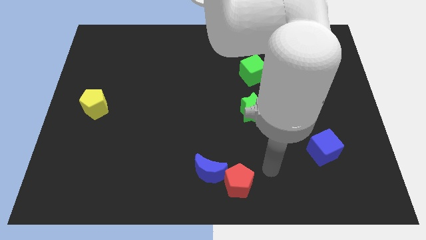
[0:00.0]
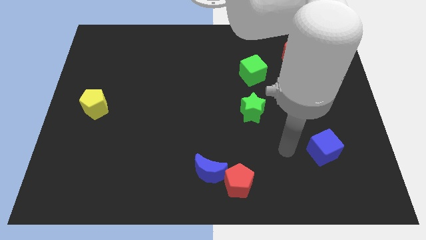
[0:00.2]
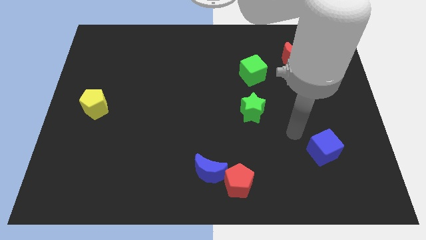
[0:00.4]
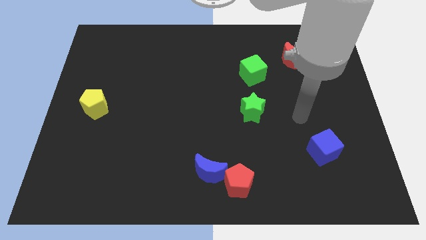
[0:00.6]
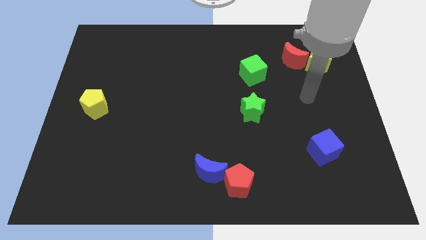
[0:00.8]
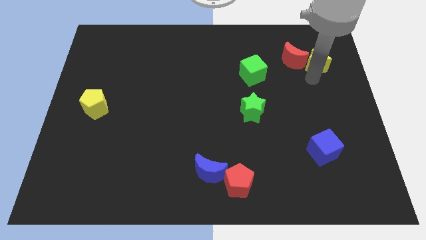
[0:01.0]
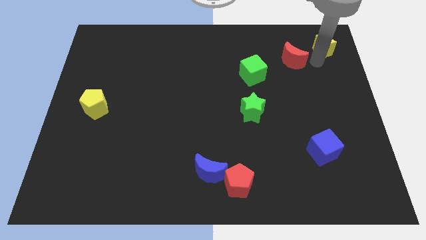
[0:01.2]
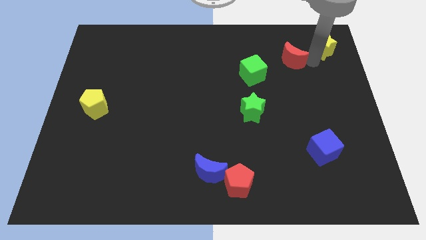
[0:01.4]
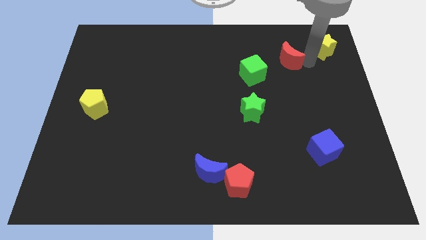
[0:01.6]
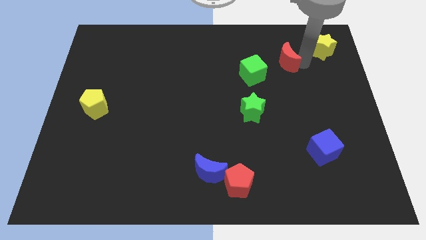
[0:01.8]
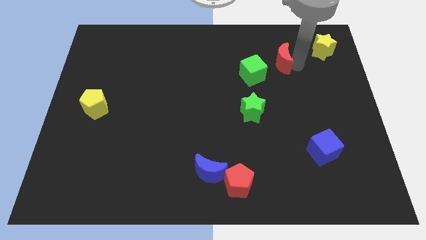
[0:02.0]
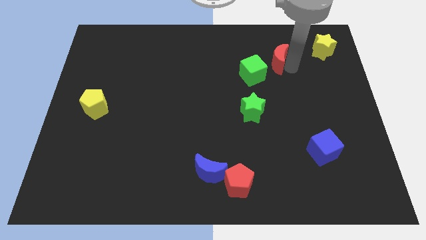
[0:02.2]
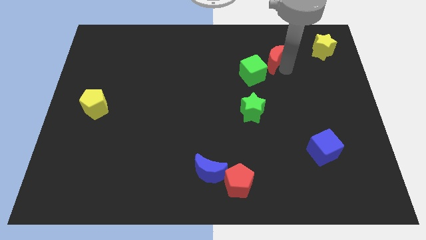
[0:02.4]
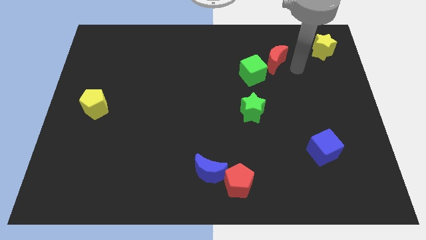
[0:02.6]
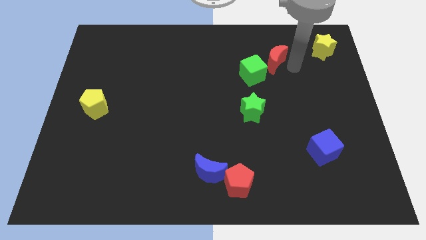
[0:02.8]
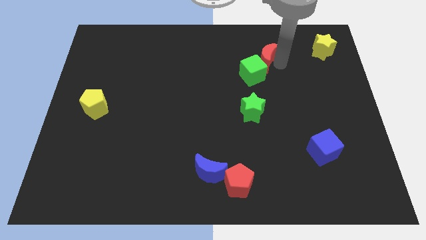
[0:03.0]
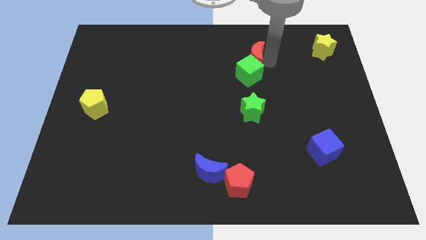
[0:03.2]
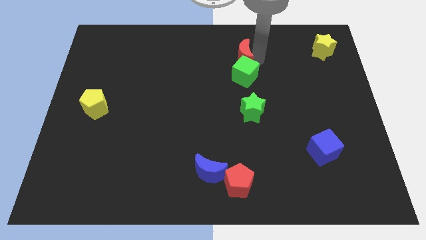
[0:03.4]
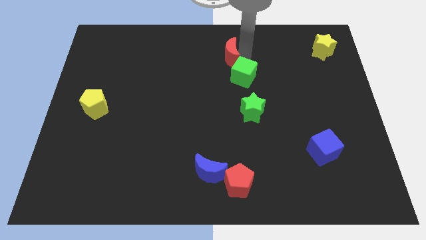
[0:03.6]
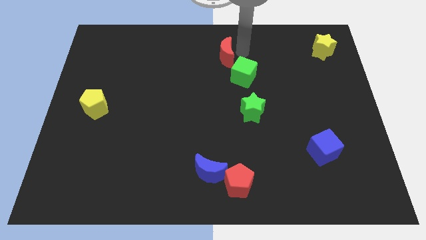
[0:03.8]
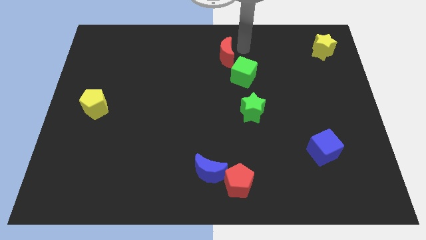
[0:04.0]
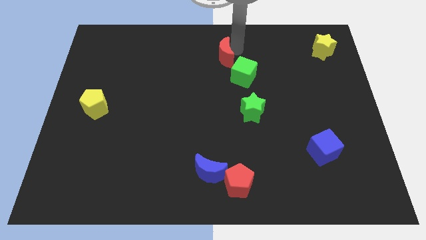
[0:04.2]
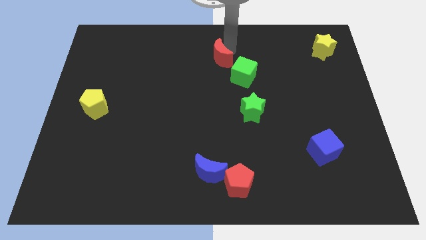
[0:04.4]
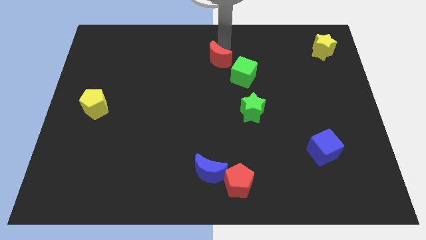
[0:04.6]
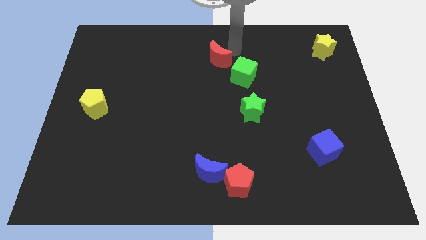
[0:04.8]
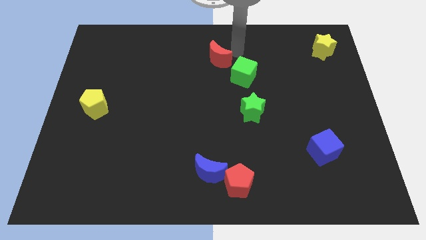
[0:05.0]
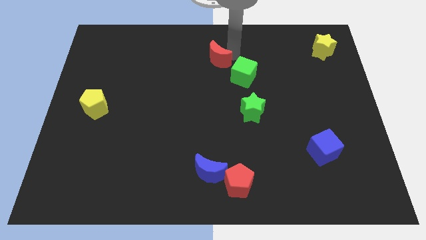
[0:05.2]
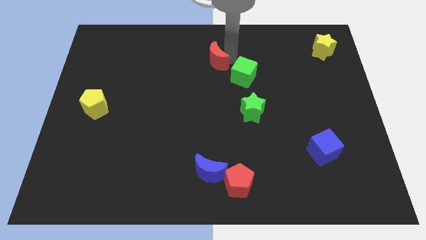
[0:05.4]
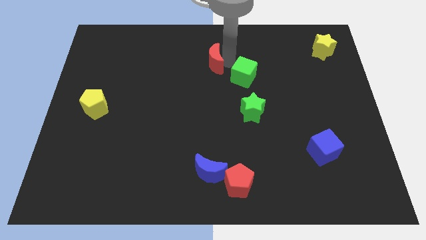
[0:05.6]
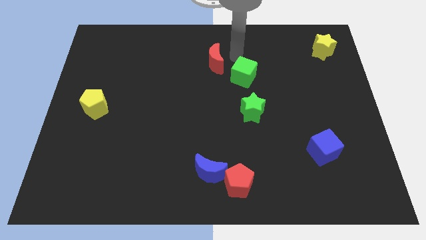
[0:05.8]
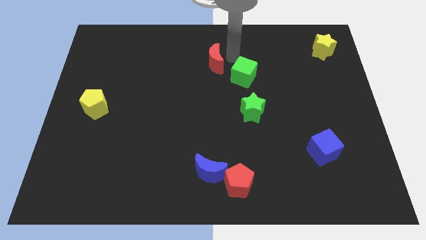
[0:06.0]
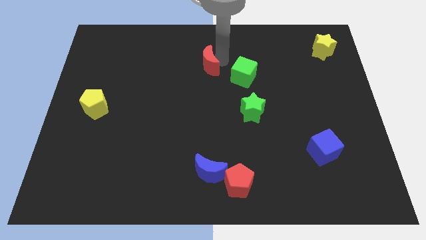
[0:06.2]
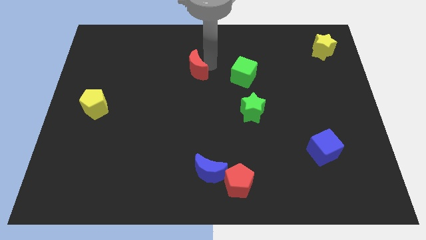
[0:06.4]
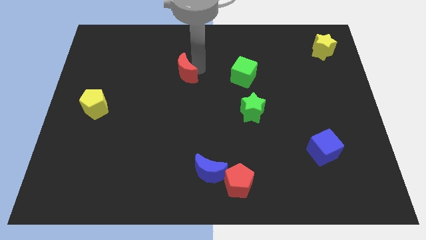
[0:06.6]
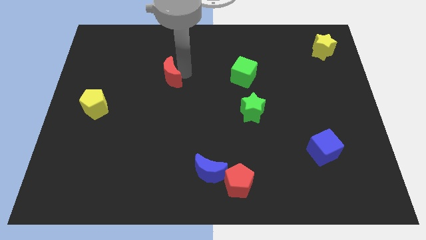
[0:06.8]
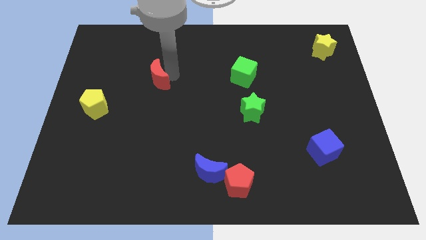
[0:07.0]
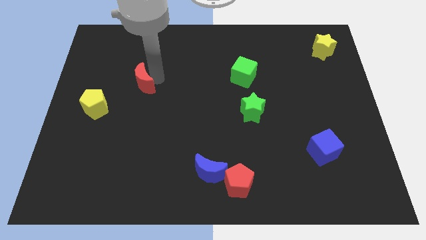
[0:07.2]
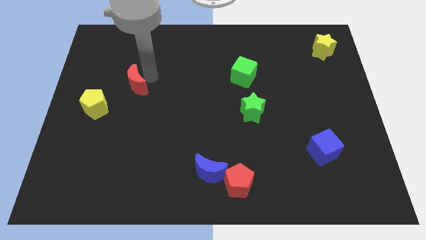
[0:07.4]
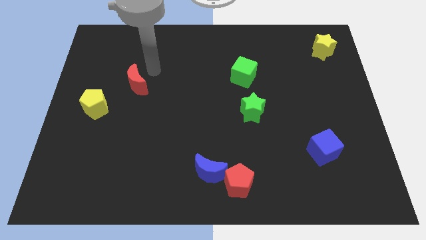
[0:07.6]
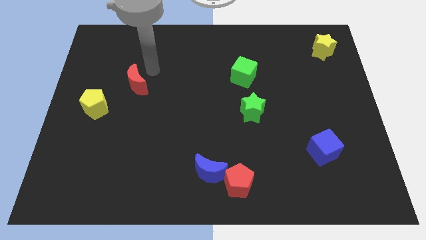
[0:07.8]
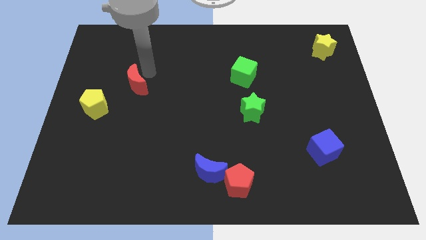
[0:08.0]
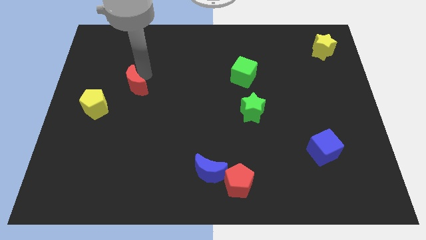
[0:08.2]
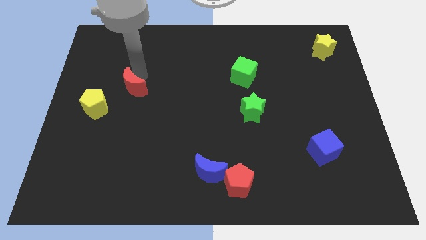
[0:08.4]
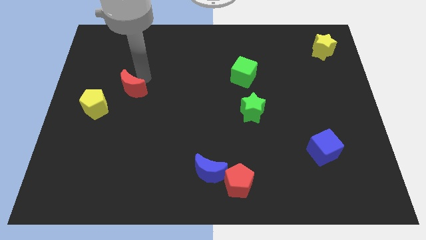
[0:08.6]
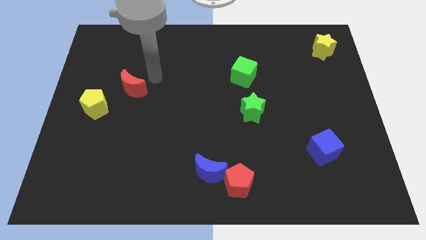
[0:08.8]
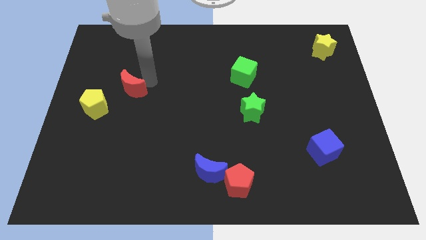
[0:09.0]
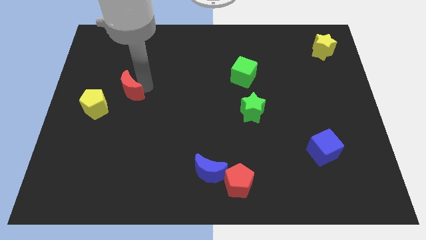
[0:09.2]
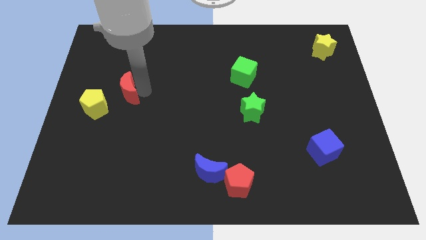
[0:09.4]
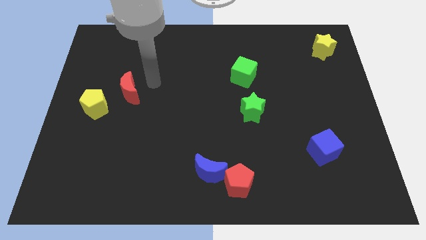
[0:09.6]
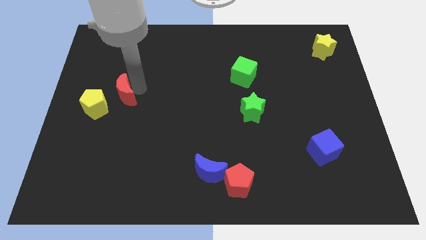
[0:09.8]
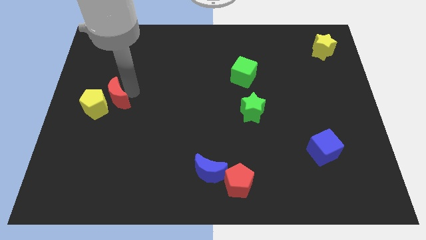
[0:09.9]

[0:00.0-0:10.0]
move the red moon next to the yellow pentagon

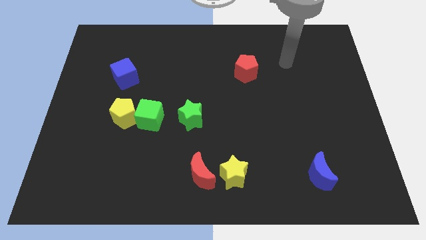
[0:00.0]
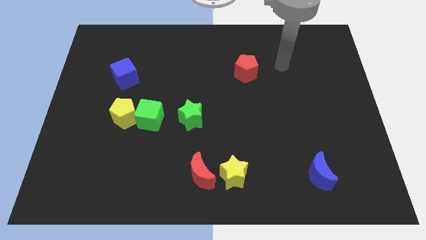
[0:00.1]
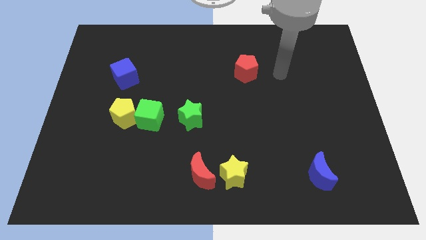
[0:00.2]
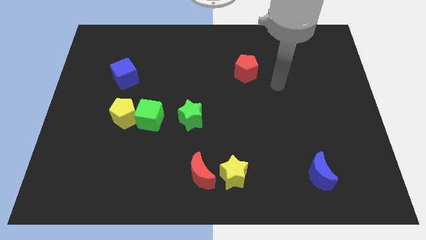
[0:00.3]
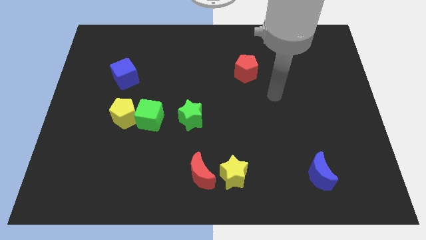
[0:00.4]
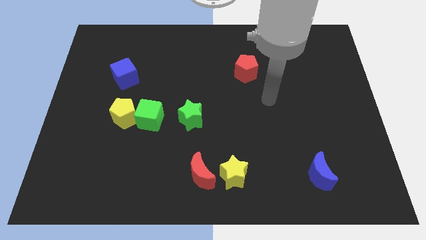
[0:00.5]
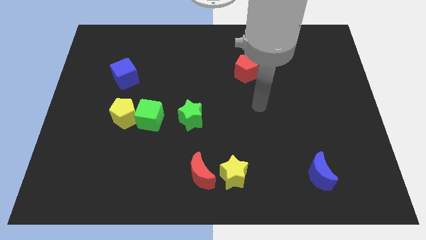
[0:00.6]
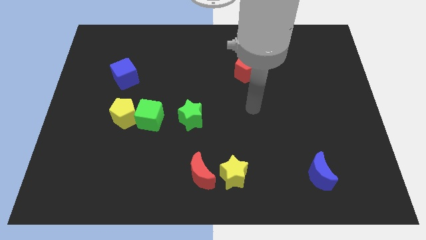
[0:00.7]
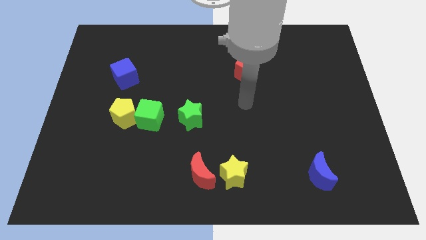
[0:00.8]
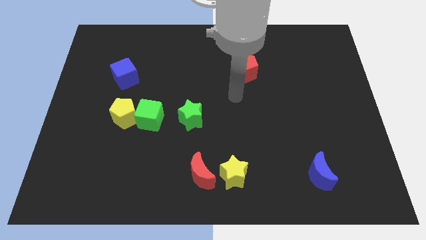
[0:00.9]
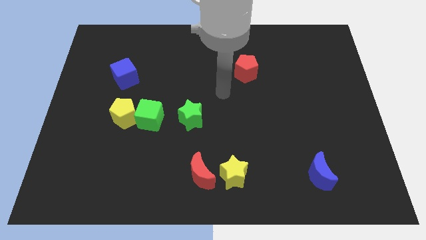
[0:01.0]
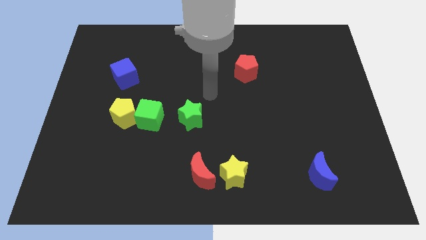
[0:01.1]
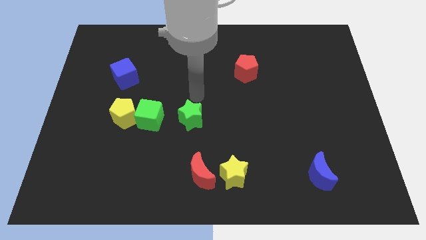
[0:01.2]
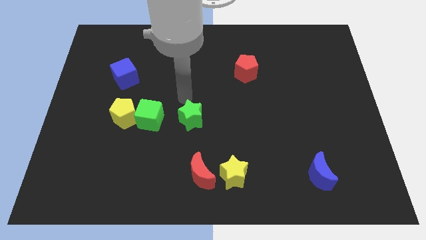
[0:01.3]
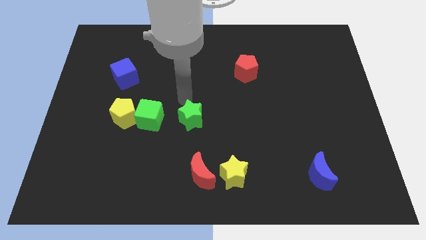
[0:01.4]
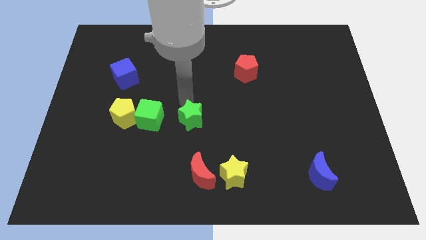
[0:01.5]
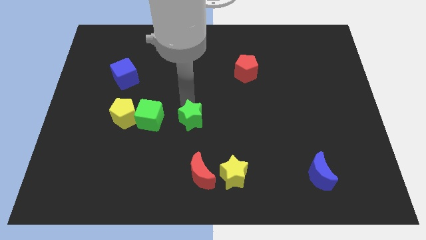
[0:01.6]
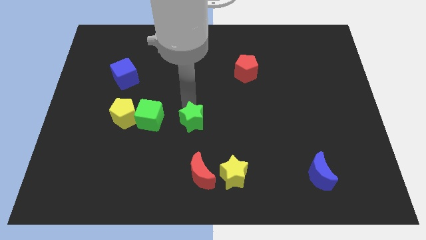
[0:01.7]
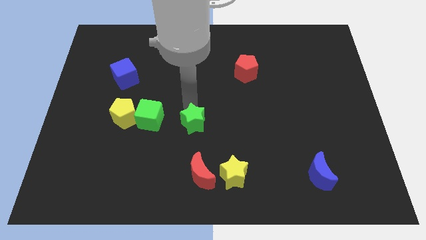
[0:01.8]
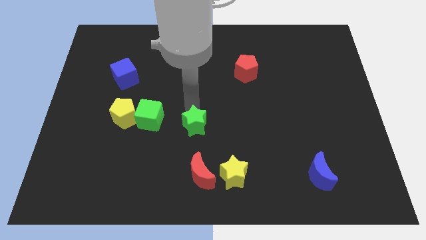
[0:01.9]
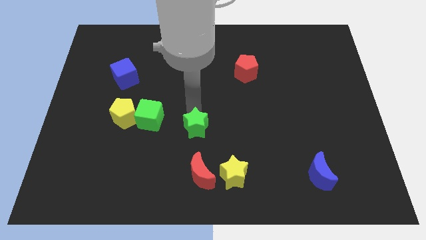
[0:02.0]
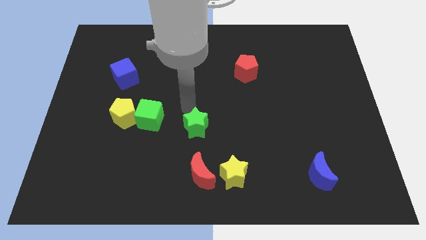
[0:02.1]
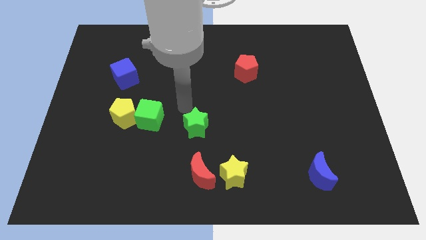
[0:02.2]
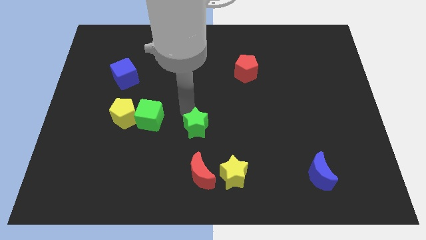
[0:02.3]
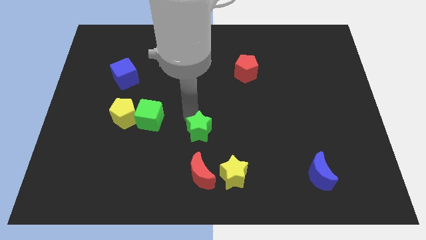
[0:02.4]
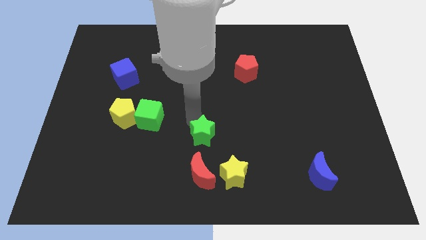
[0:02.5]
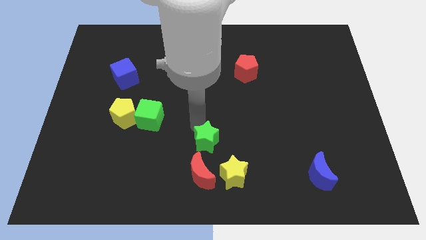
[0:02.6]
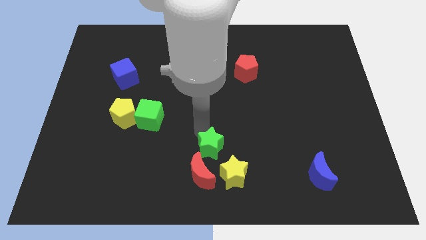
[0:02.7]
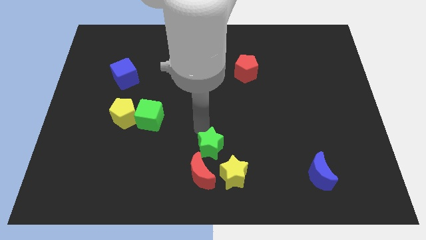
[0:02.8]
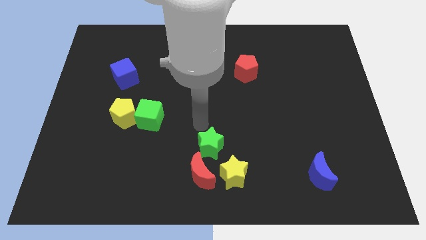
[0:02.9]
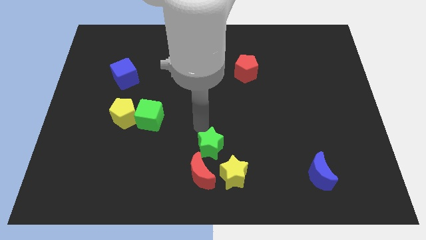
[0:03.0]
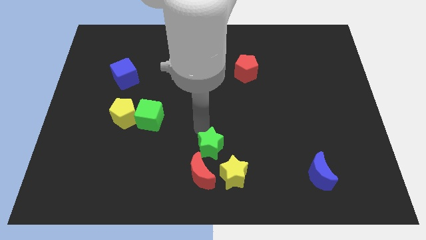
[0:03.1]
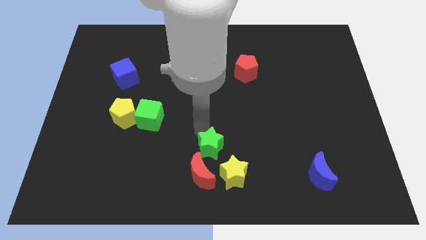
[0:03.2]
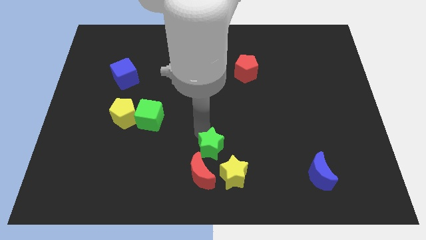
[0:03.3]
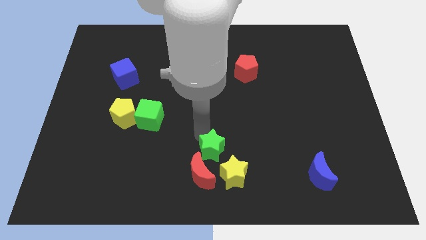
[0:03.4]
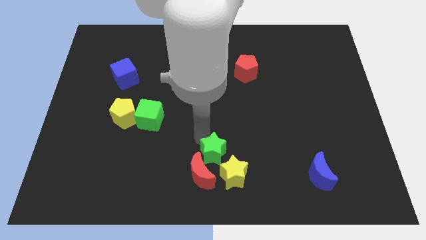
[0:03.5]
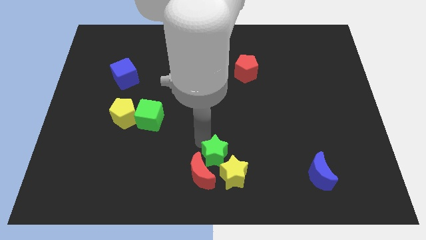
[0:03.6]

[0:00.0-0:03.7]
move the green star towards the yellow star
